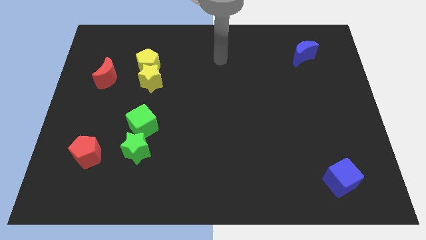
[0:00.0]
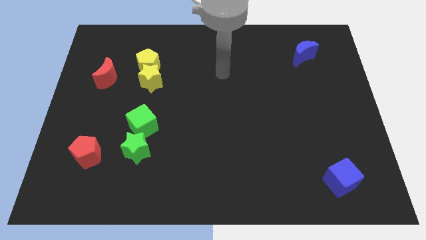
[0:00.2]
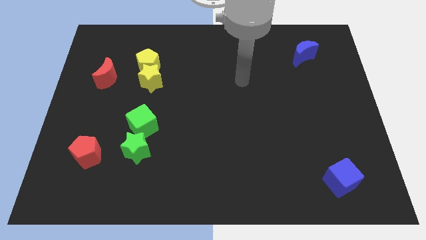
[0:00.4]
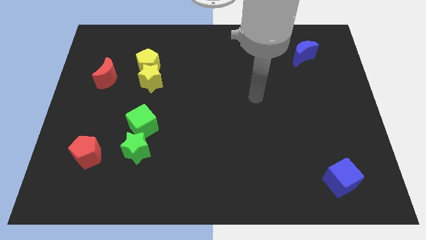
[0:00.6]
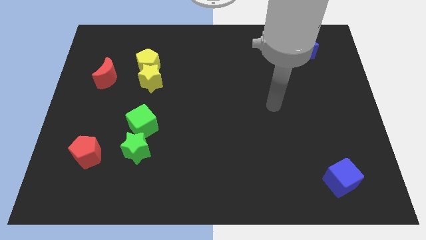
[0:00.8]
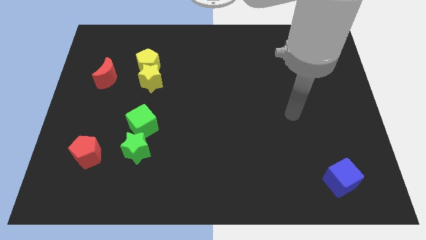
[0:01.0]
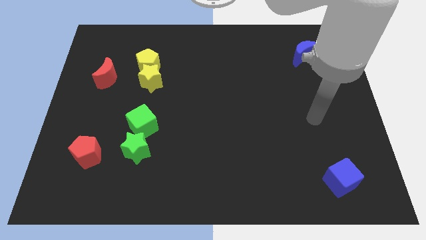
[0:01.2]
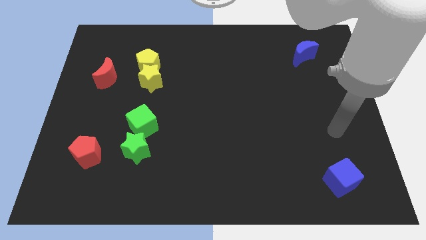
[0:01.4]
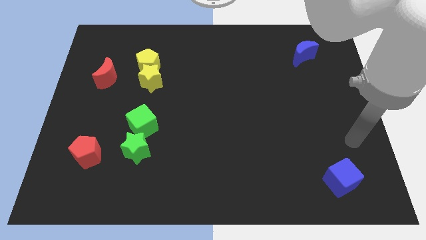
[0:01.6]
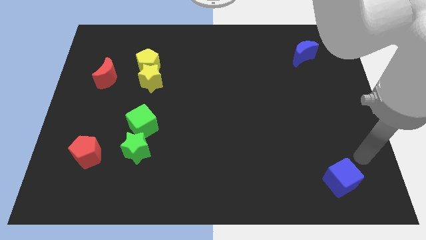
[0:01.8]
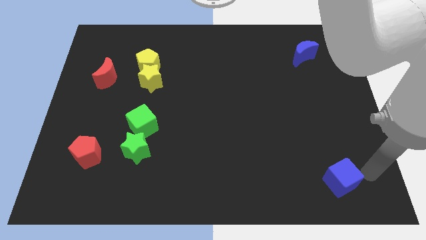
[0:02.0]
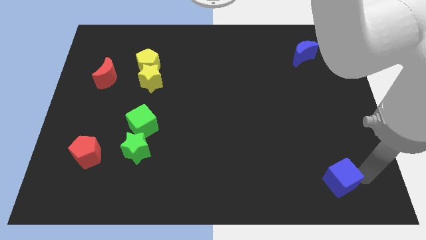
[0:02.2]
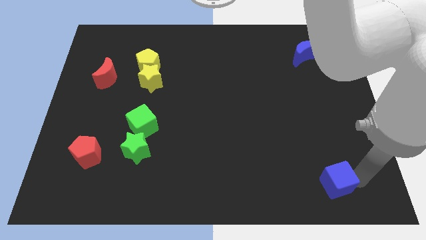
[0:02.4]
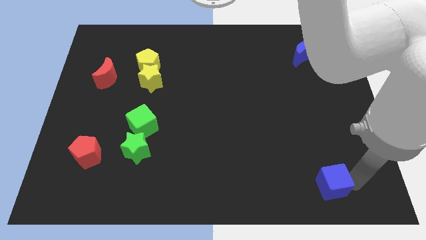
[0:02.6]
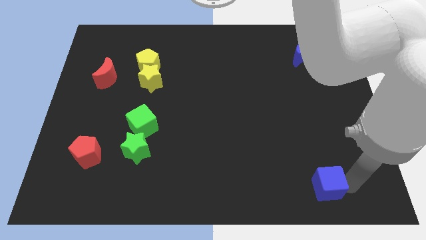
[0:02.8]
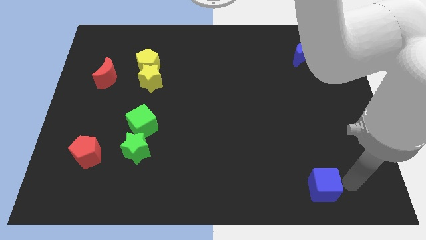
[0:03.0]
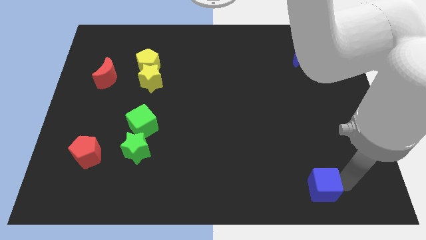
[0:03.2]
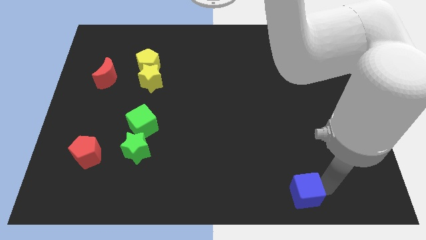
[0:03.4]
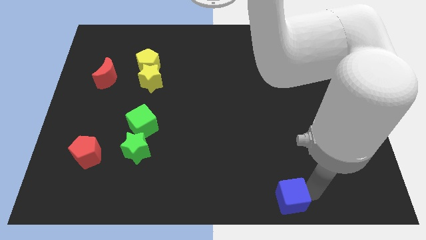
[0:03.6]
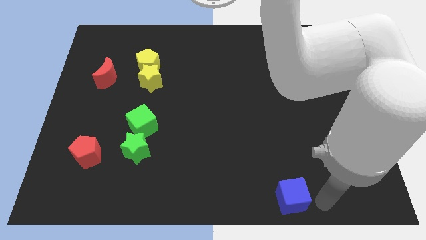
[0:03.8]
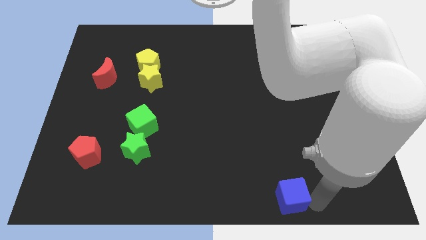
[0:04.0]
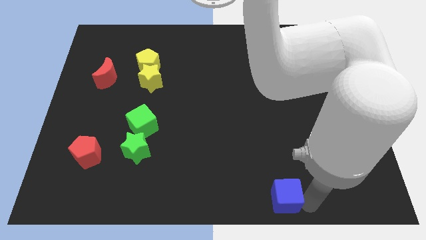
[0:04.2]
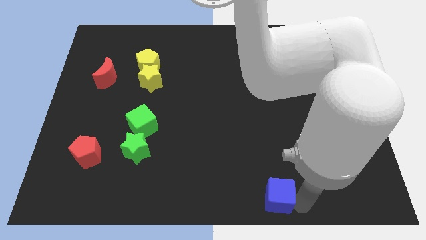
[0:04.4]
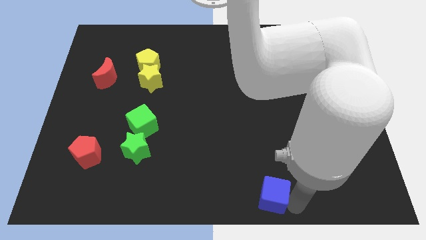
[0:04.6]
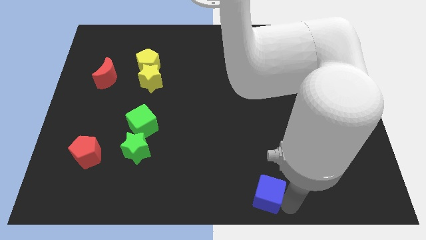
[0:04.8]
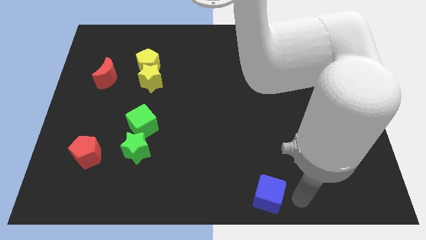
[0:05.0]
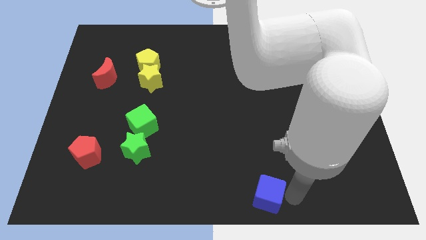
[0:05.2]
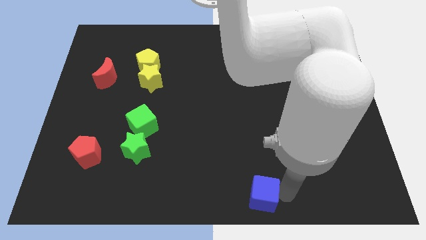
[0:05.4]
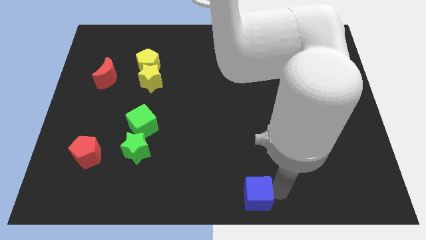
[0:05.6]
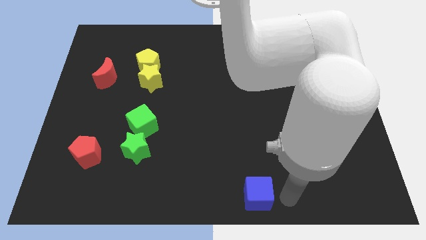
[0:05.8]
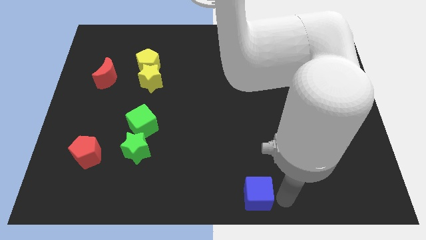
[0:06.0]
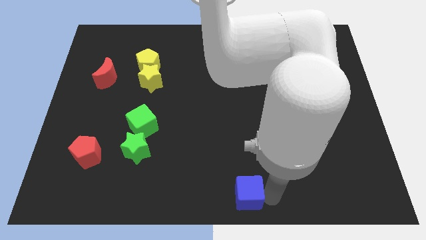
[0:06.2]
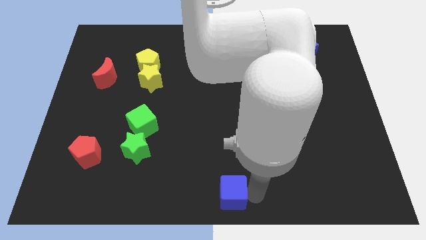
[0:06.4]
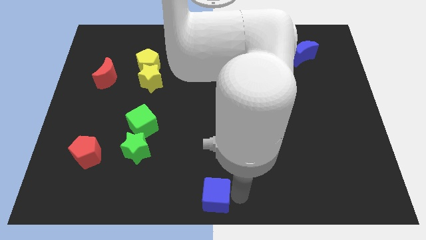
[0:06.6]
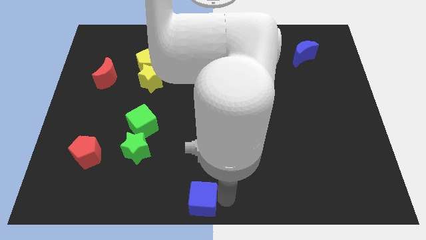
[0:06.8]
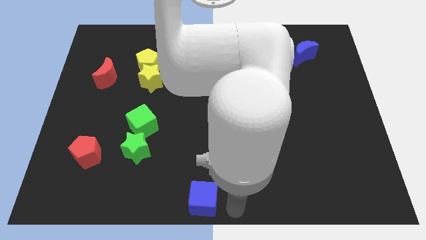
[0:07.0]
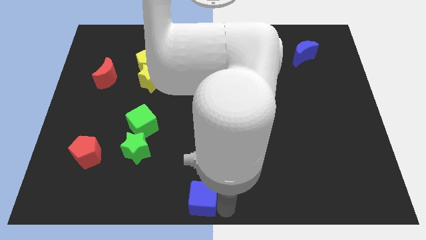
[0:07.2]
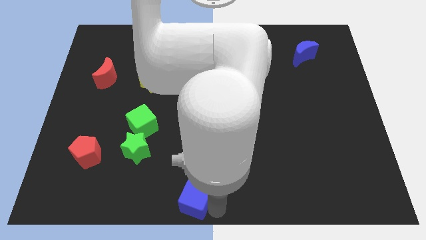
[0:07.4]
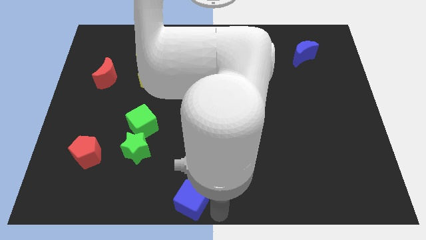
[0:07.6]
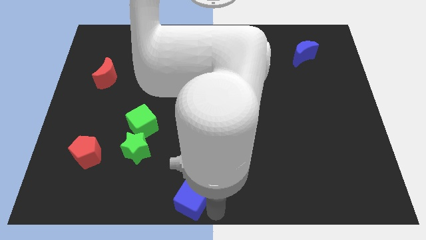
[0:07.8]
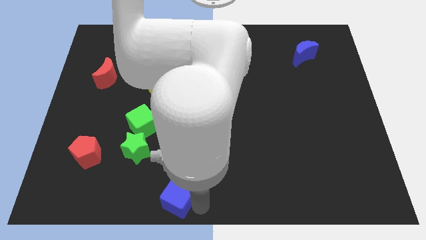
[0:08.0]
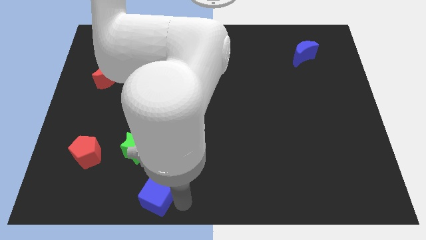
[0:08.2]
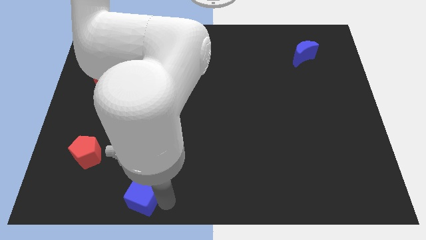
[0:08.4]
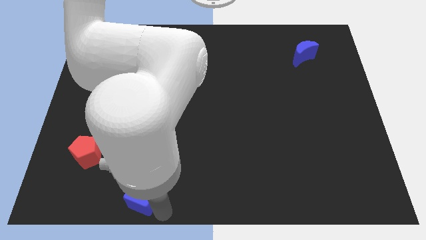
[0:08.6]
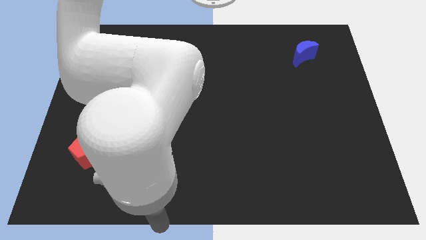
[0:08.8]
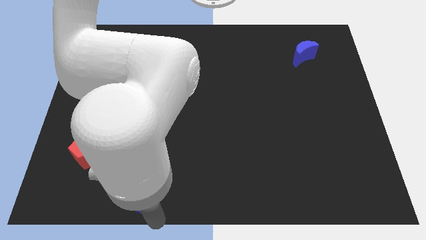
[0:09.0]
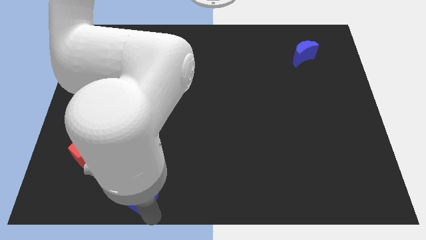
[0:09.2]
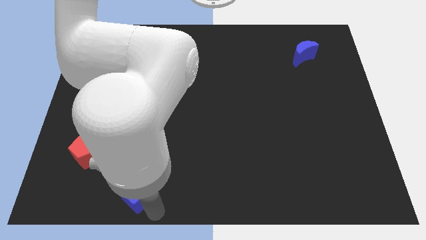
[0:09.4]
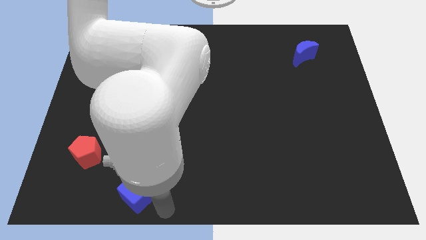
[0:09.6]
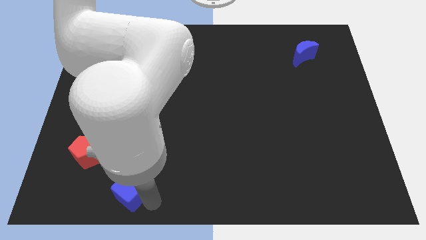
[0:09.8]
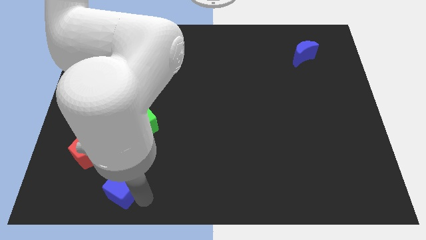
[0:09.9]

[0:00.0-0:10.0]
push the blue cube to the bottom right side of the red pentagon

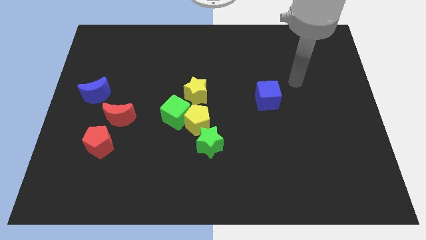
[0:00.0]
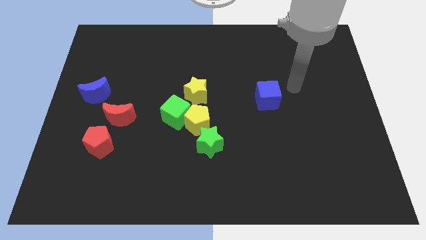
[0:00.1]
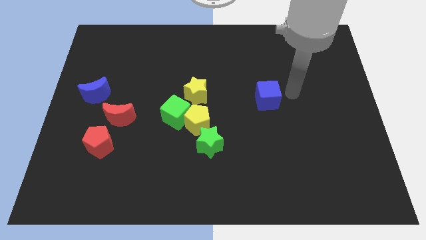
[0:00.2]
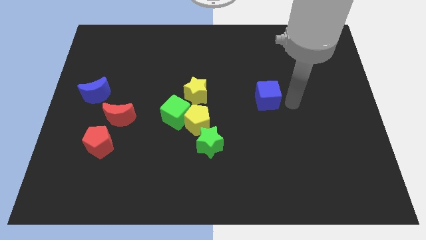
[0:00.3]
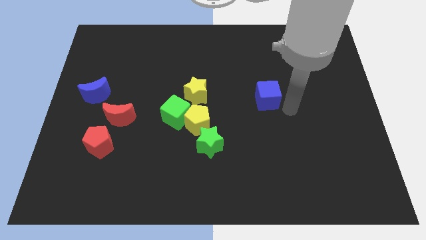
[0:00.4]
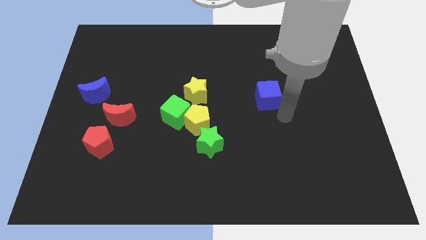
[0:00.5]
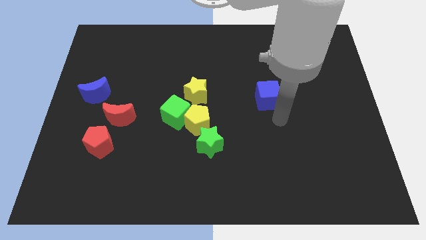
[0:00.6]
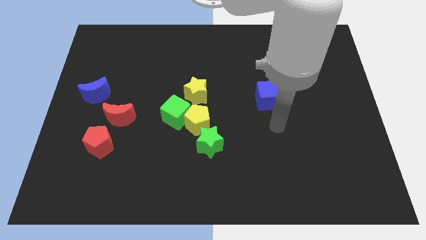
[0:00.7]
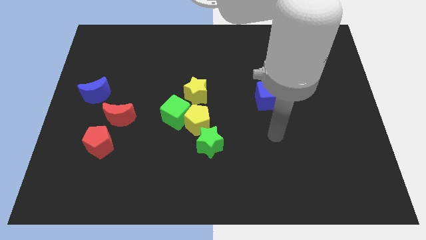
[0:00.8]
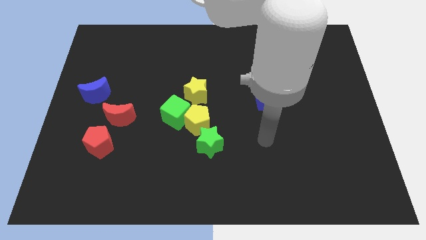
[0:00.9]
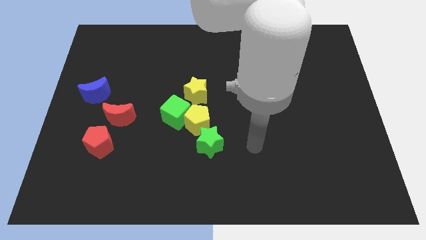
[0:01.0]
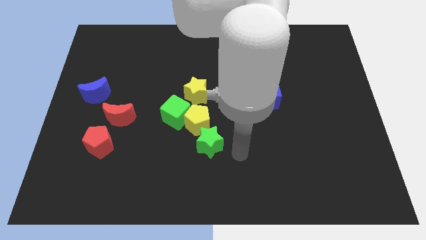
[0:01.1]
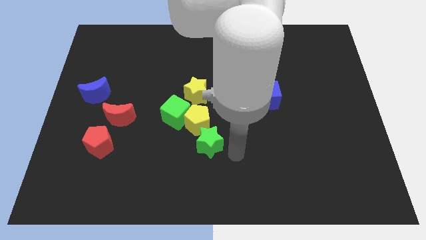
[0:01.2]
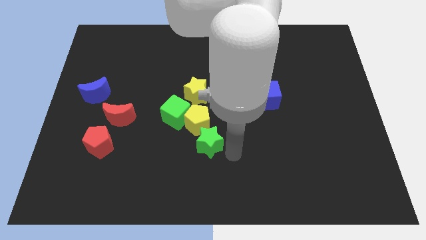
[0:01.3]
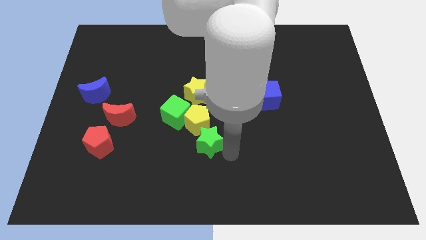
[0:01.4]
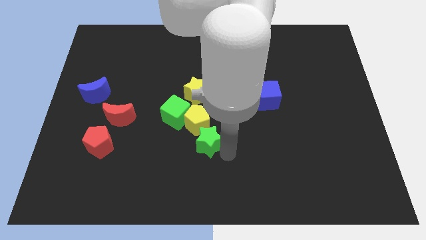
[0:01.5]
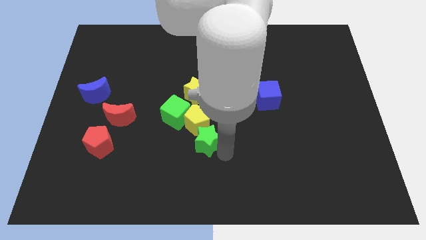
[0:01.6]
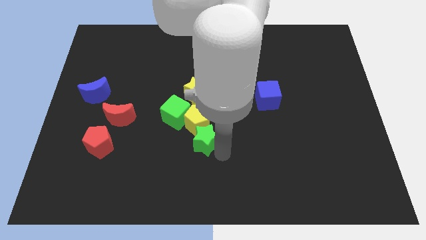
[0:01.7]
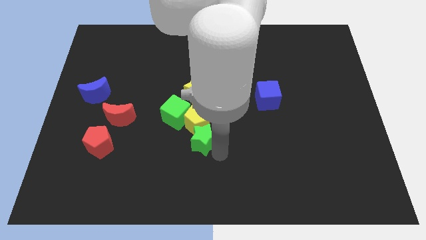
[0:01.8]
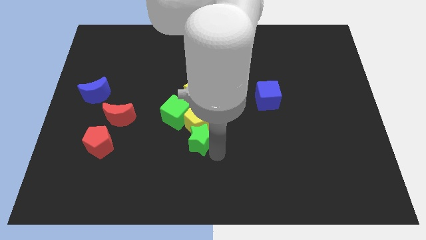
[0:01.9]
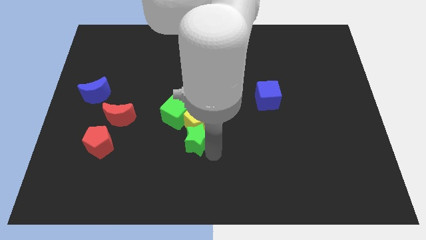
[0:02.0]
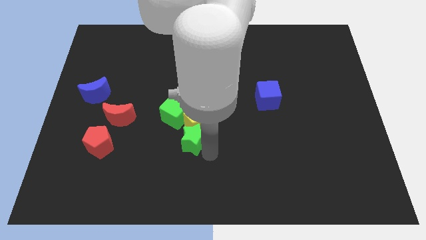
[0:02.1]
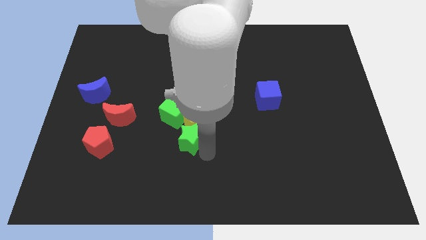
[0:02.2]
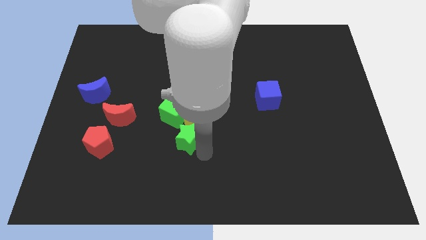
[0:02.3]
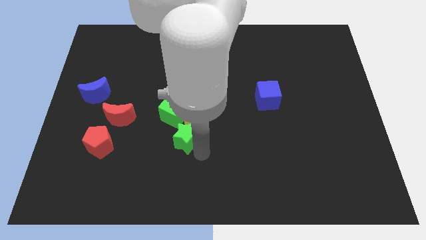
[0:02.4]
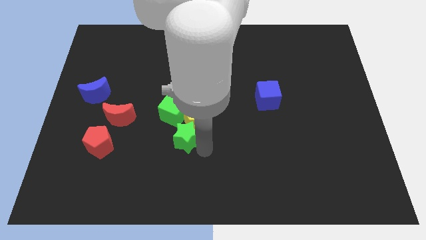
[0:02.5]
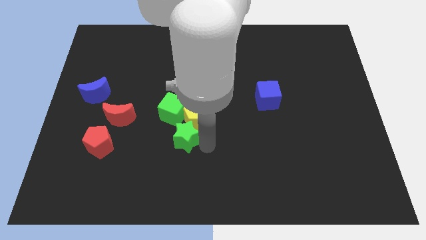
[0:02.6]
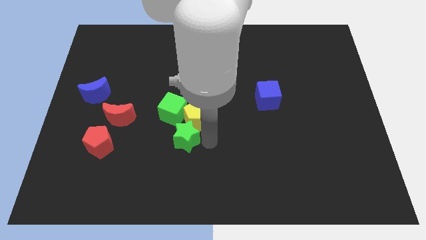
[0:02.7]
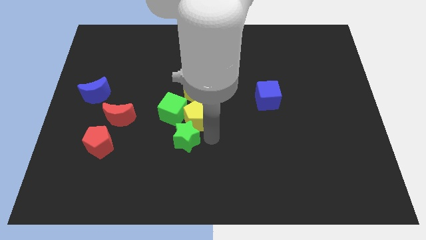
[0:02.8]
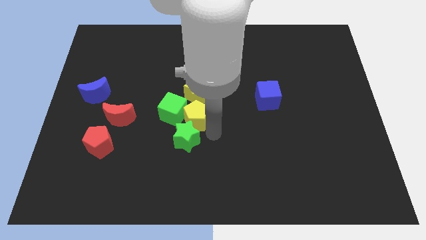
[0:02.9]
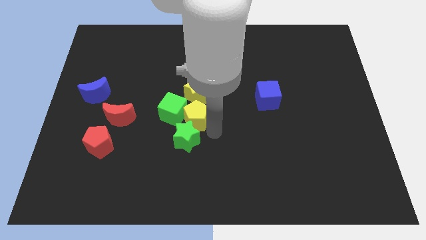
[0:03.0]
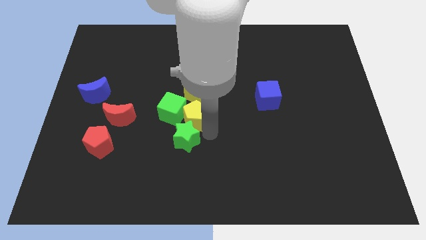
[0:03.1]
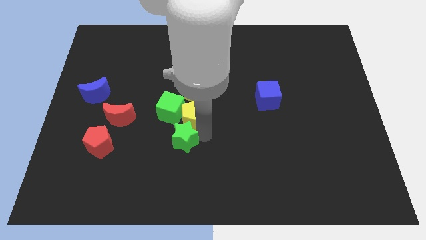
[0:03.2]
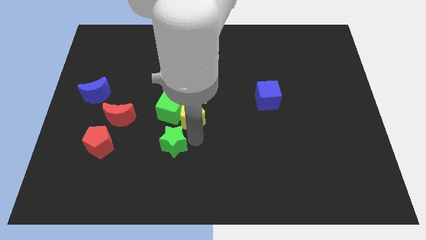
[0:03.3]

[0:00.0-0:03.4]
put the green star right of the red pentagon

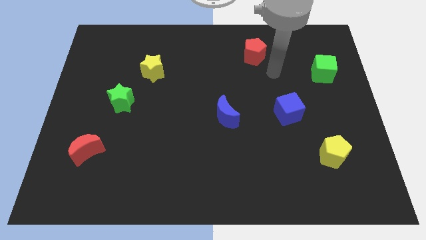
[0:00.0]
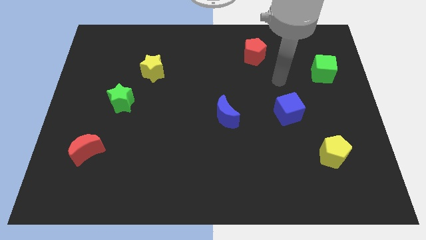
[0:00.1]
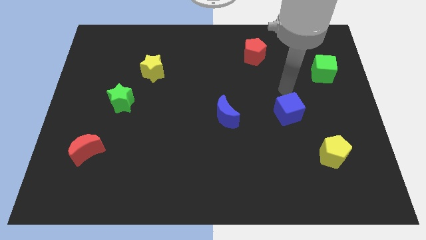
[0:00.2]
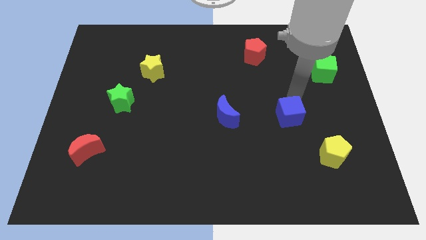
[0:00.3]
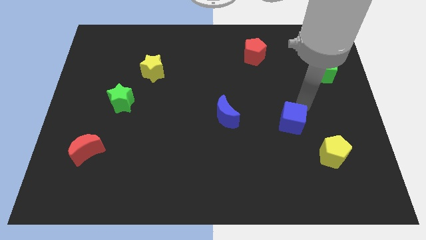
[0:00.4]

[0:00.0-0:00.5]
push the yellow pentagon to the bottom right of the blue cube
